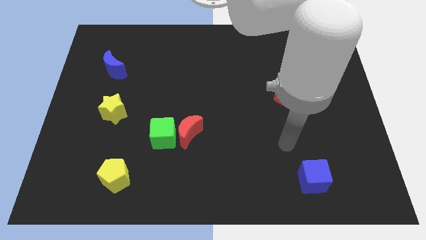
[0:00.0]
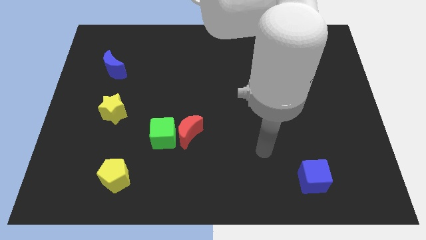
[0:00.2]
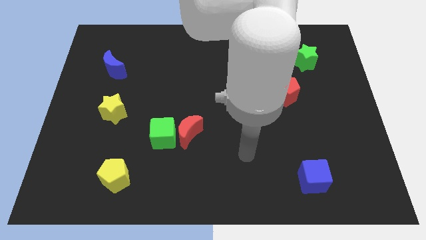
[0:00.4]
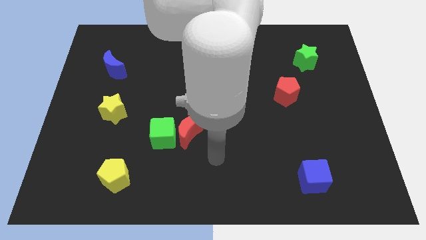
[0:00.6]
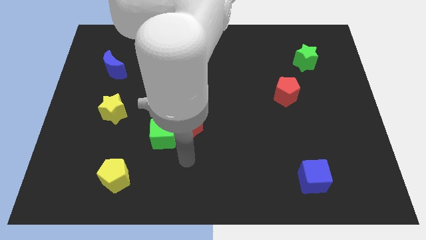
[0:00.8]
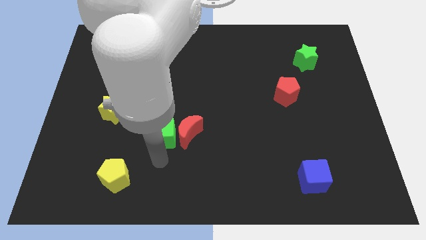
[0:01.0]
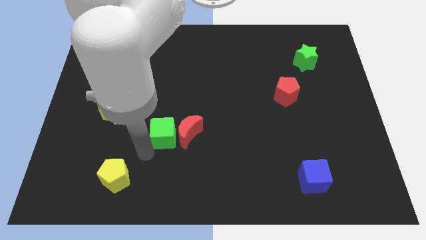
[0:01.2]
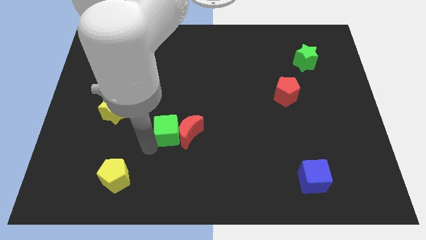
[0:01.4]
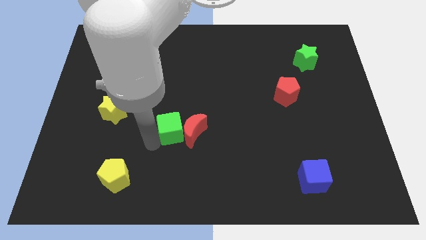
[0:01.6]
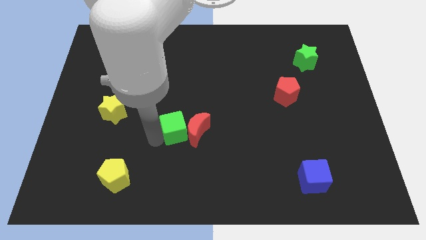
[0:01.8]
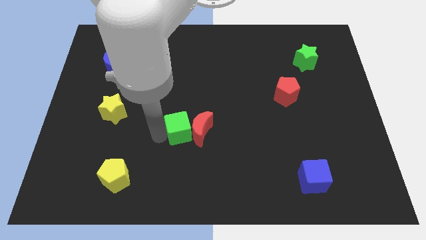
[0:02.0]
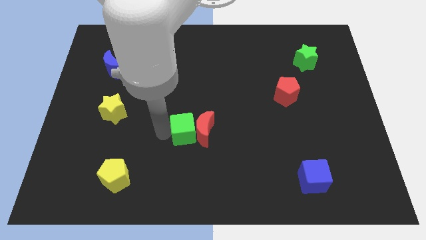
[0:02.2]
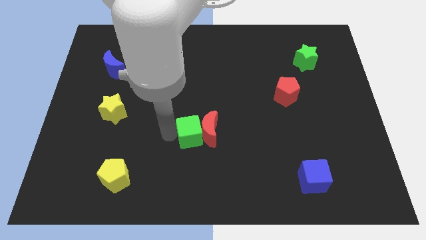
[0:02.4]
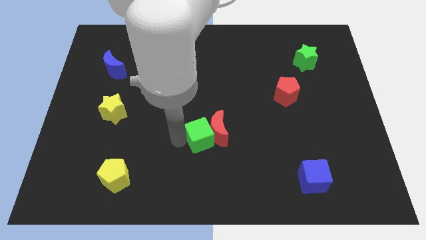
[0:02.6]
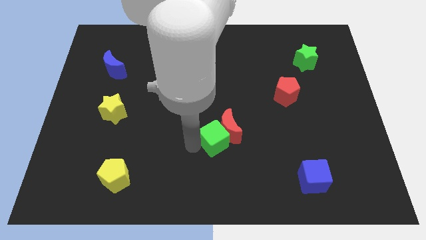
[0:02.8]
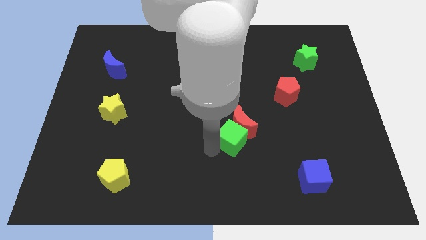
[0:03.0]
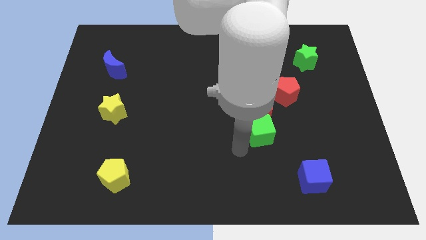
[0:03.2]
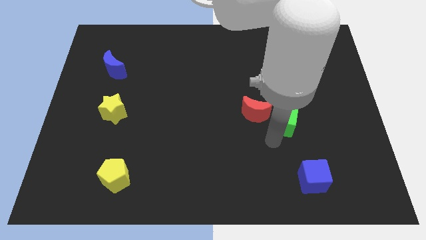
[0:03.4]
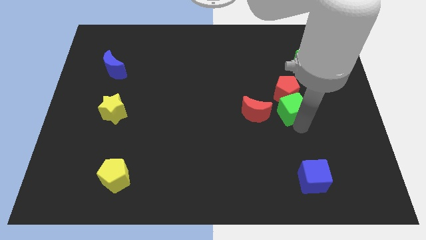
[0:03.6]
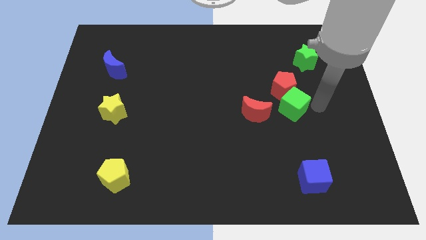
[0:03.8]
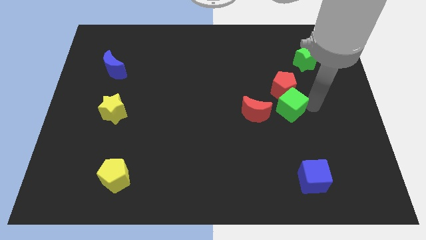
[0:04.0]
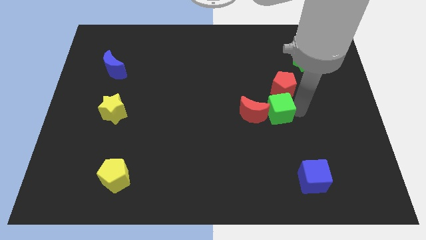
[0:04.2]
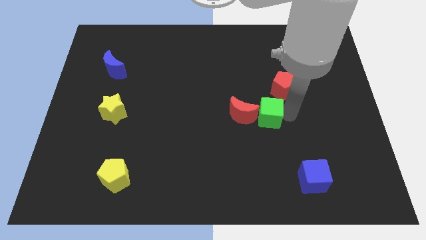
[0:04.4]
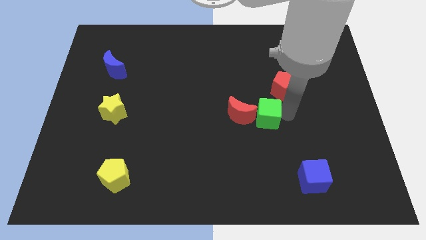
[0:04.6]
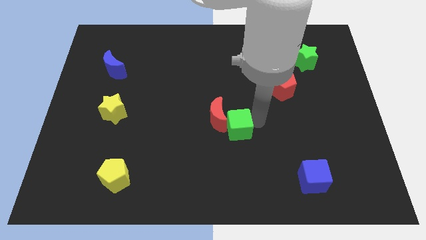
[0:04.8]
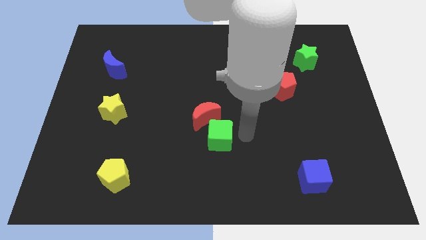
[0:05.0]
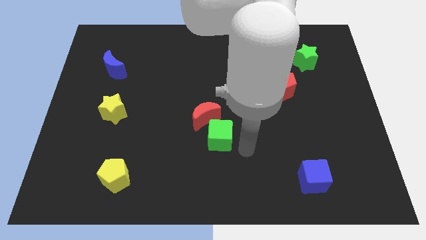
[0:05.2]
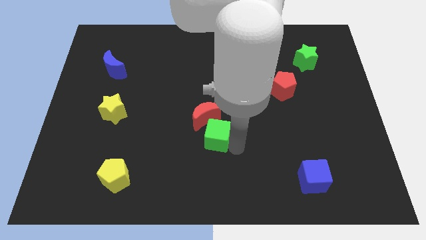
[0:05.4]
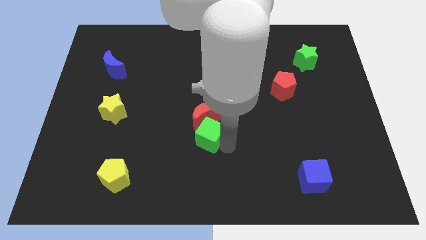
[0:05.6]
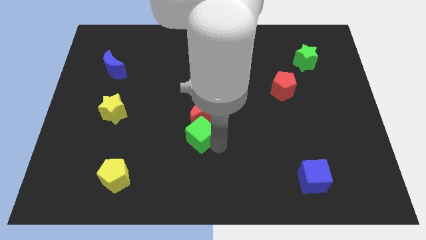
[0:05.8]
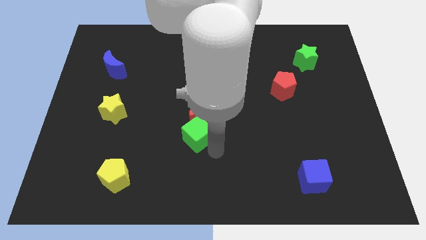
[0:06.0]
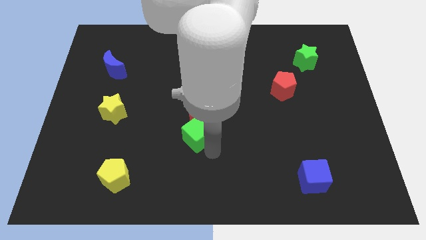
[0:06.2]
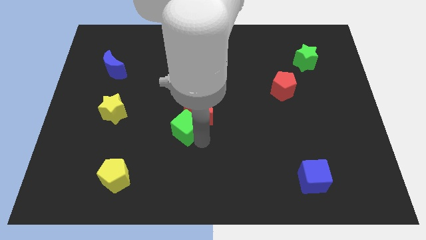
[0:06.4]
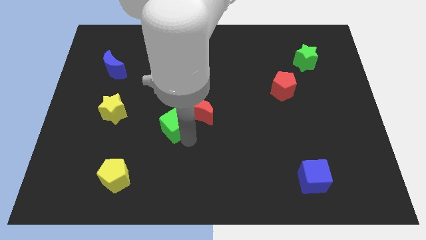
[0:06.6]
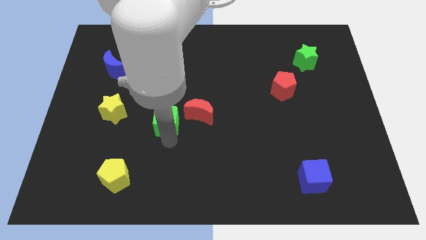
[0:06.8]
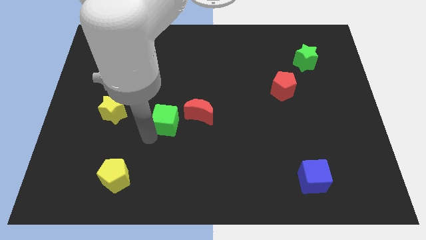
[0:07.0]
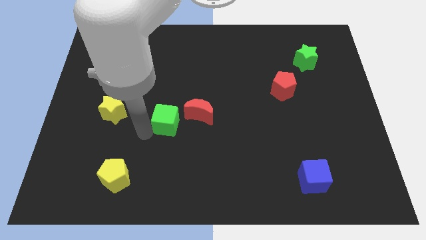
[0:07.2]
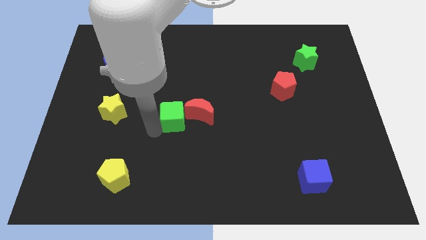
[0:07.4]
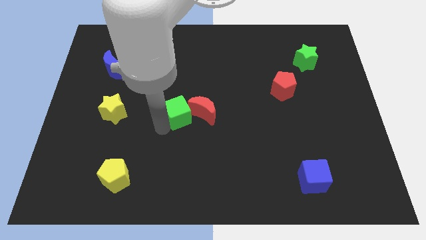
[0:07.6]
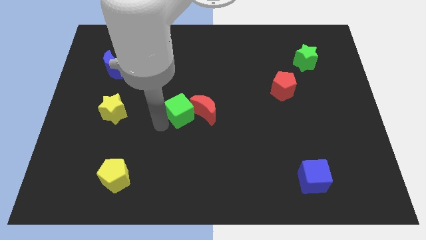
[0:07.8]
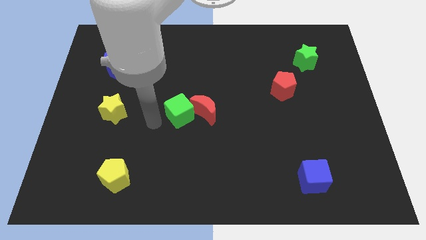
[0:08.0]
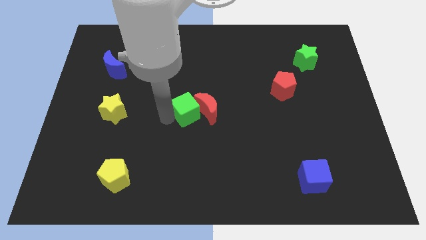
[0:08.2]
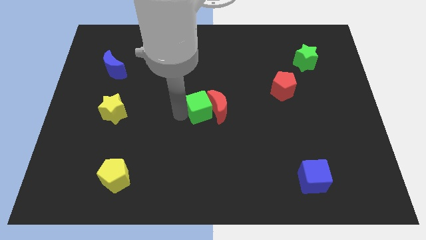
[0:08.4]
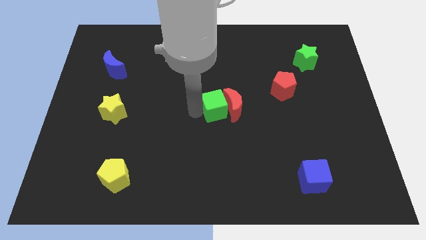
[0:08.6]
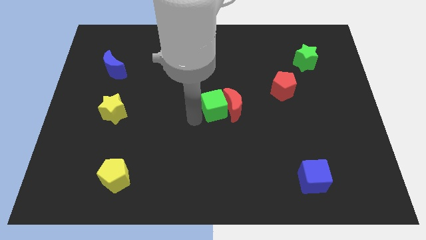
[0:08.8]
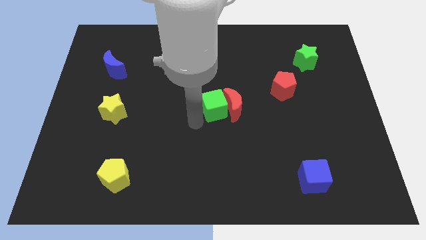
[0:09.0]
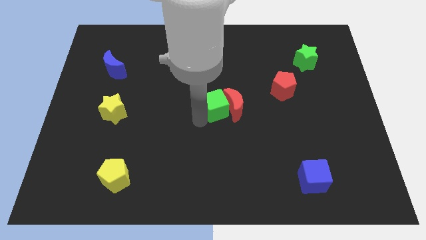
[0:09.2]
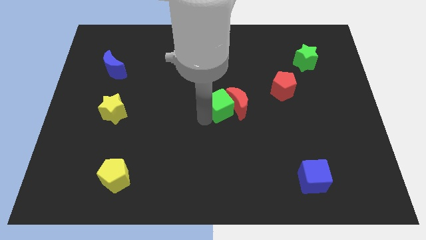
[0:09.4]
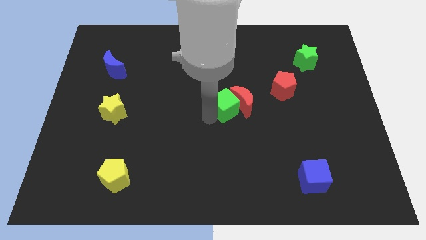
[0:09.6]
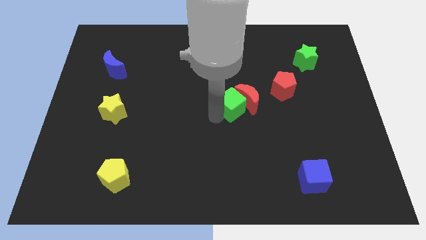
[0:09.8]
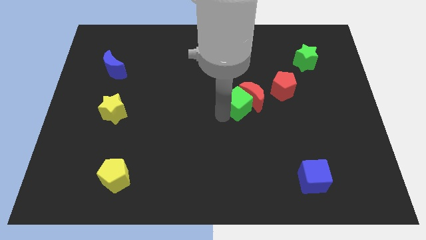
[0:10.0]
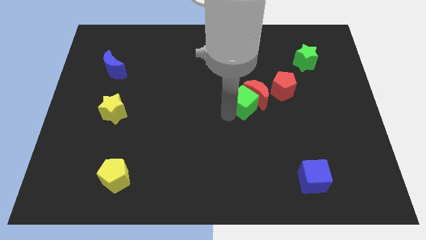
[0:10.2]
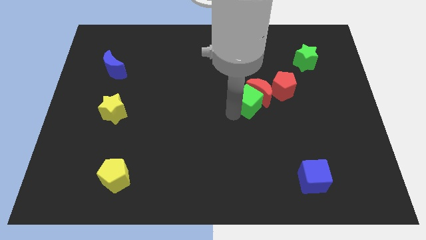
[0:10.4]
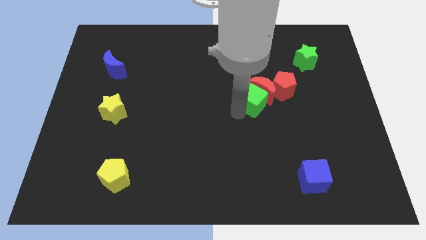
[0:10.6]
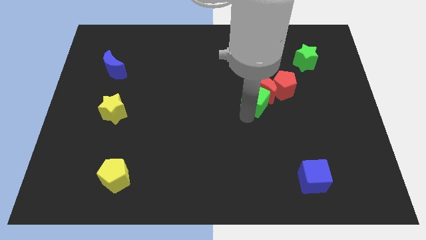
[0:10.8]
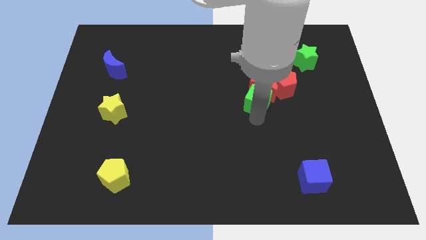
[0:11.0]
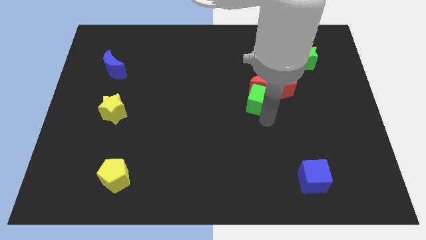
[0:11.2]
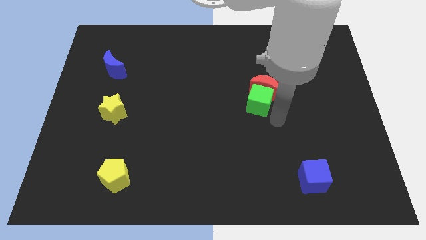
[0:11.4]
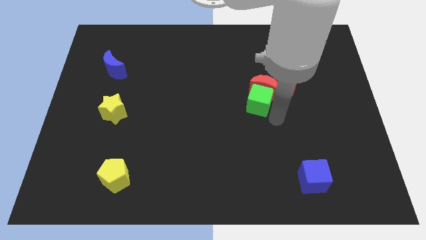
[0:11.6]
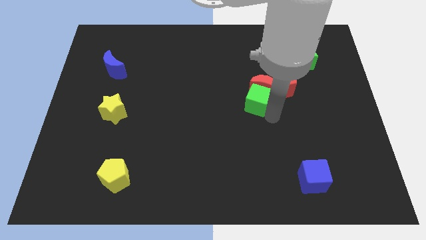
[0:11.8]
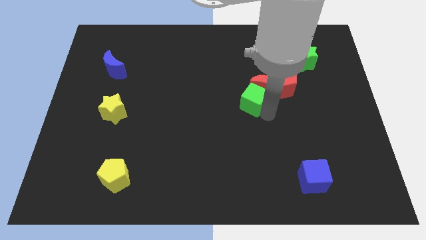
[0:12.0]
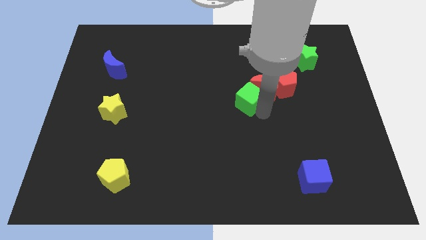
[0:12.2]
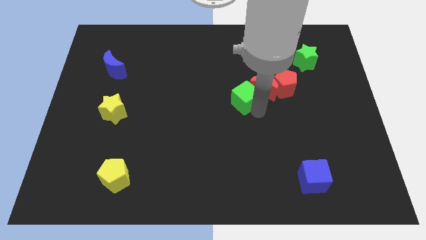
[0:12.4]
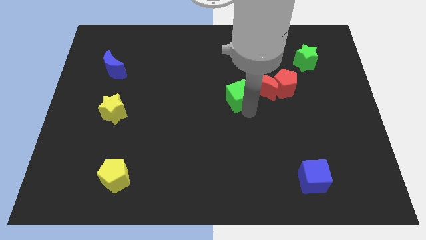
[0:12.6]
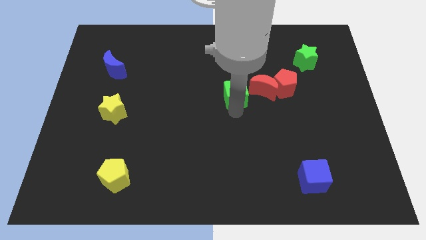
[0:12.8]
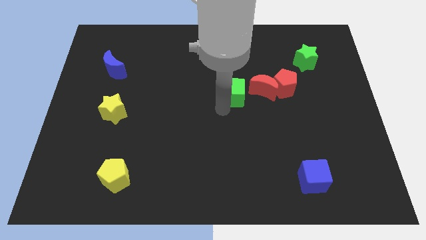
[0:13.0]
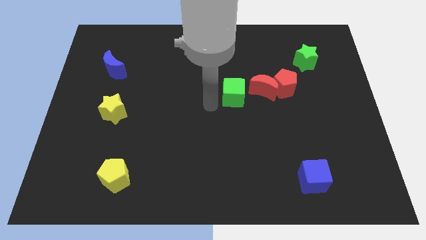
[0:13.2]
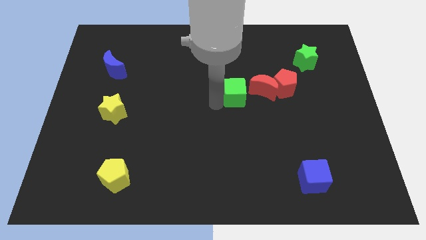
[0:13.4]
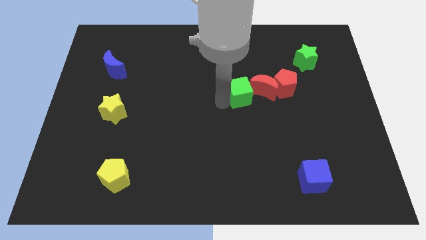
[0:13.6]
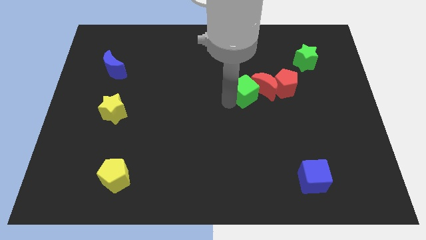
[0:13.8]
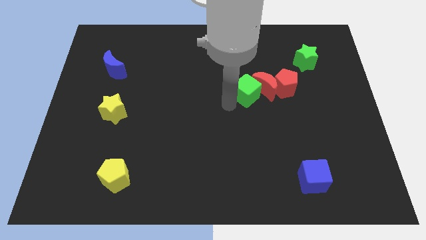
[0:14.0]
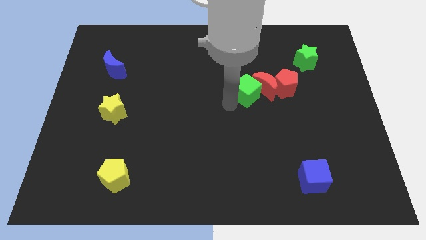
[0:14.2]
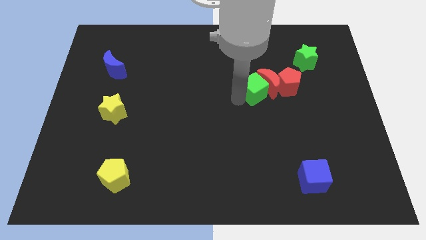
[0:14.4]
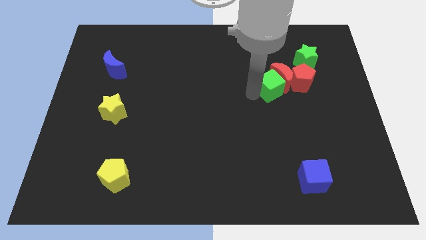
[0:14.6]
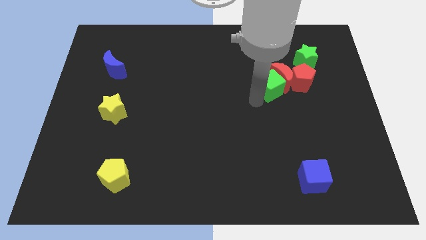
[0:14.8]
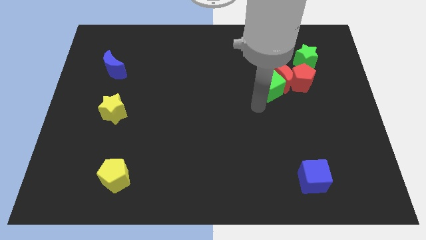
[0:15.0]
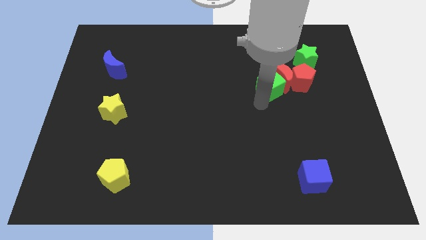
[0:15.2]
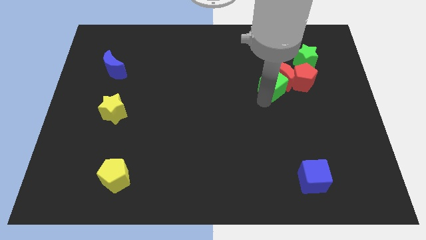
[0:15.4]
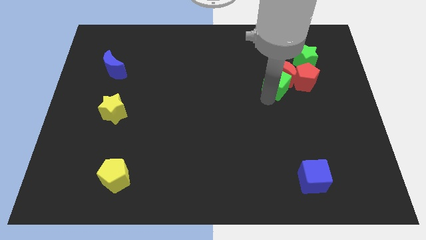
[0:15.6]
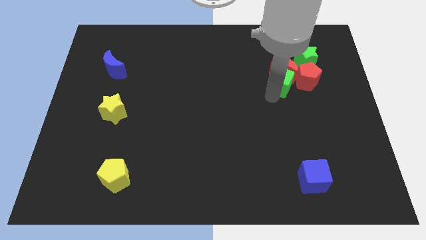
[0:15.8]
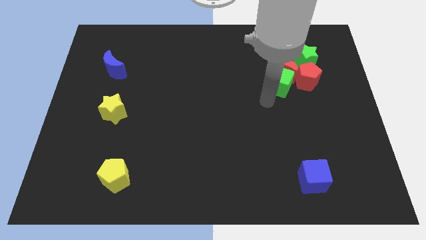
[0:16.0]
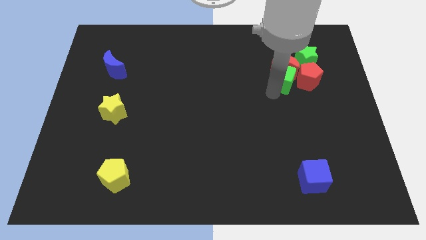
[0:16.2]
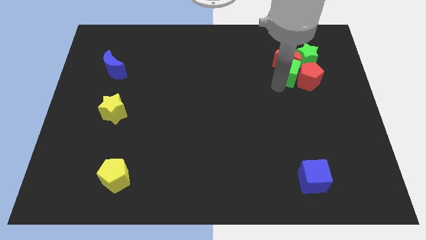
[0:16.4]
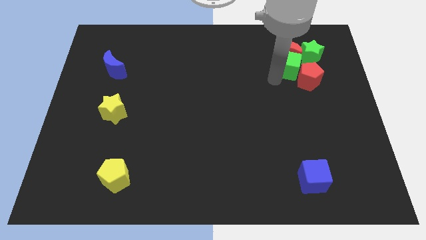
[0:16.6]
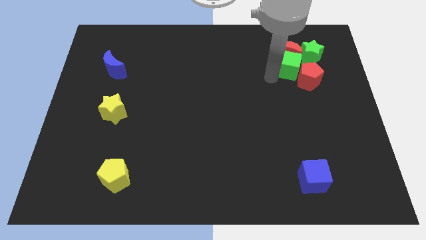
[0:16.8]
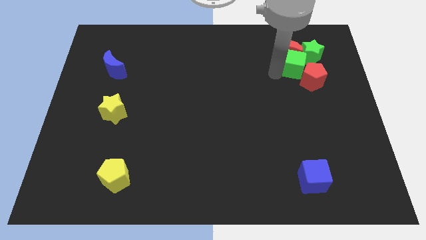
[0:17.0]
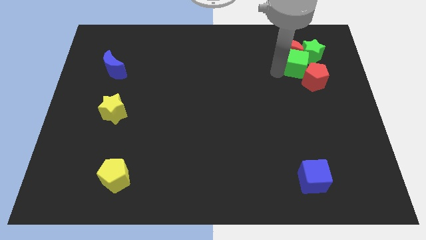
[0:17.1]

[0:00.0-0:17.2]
push the green cube to the green star
